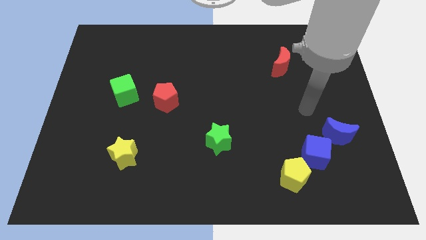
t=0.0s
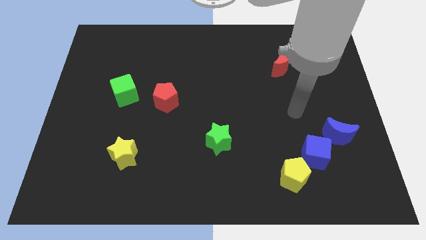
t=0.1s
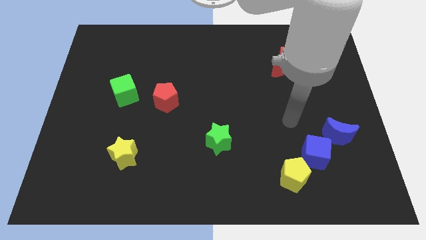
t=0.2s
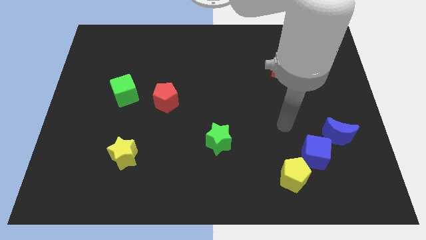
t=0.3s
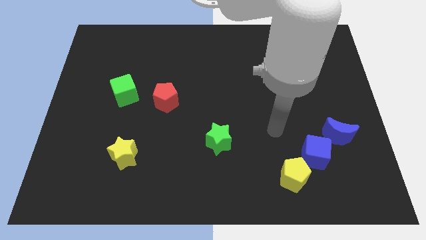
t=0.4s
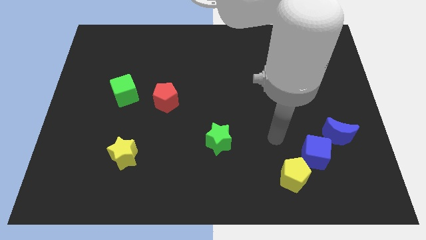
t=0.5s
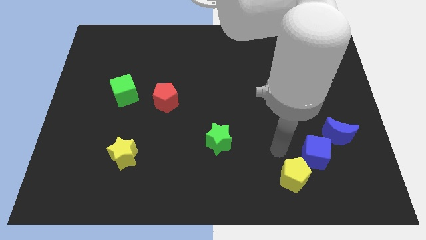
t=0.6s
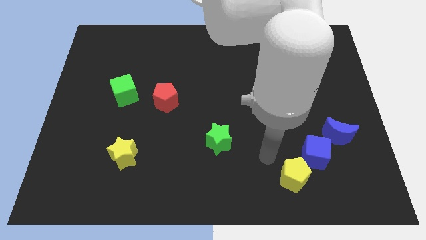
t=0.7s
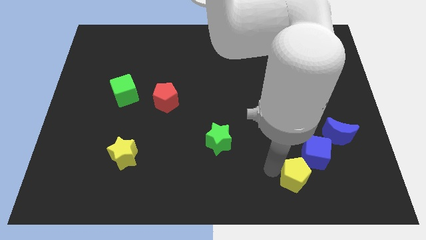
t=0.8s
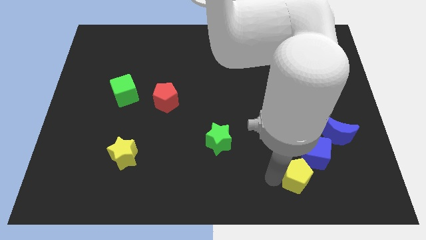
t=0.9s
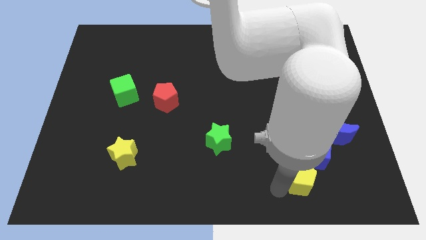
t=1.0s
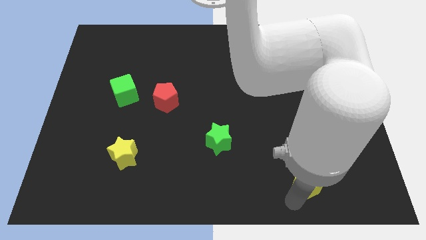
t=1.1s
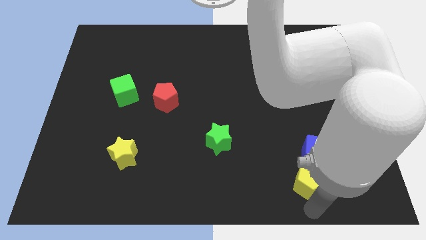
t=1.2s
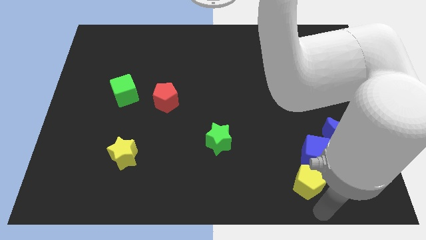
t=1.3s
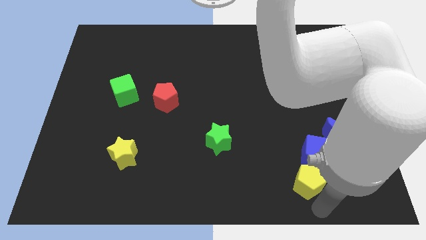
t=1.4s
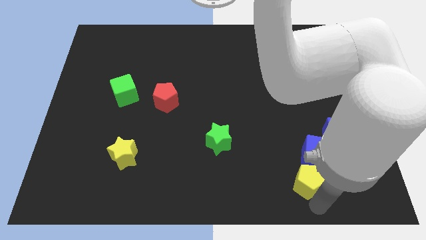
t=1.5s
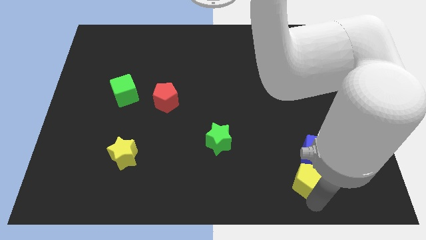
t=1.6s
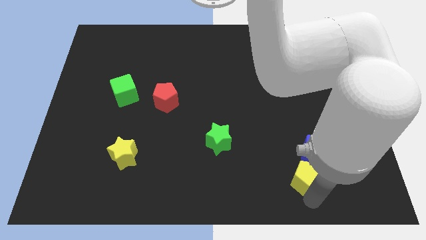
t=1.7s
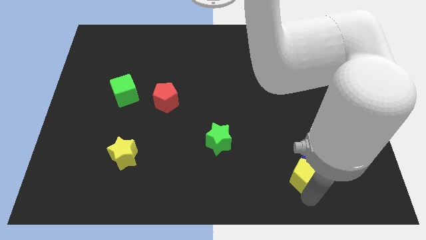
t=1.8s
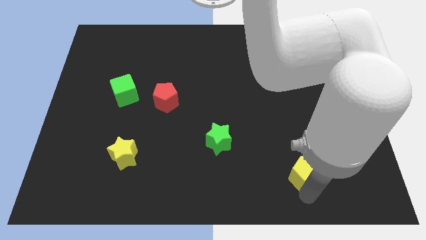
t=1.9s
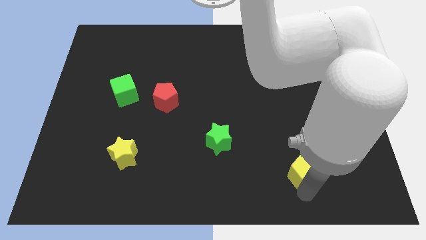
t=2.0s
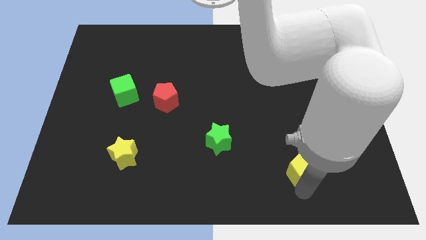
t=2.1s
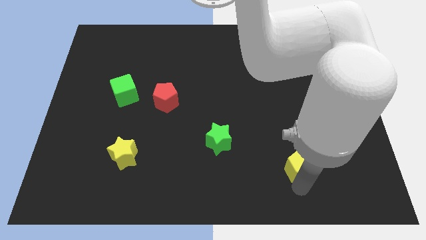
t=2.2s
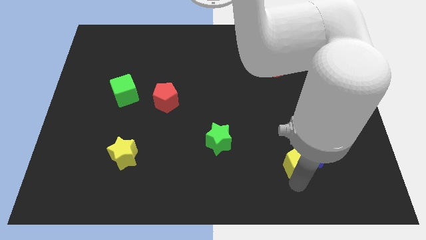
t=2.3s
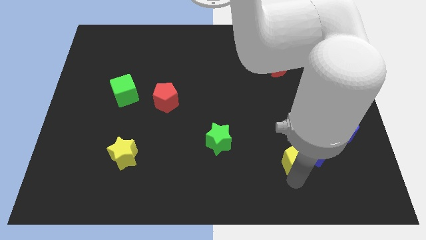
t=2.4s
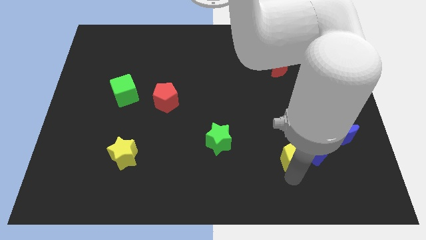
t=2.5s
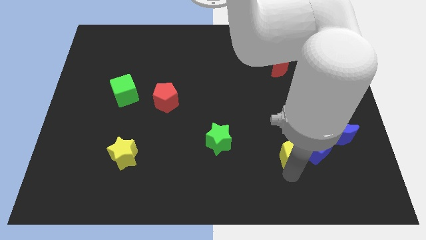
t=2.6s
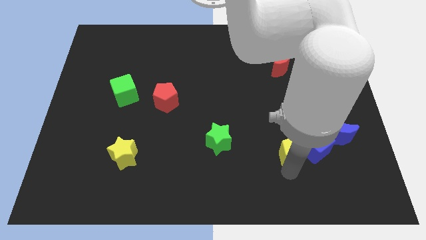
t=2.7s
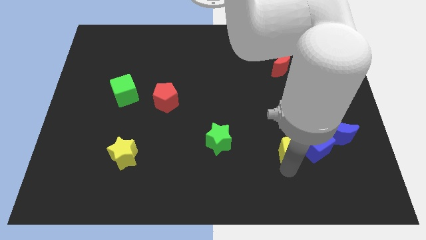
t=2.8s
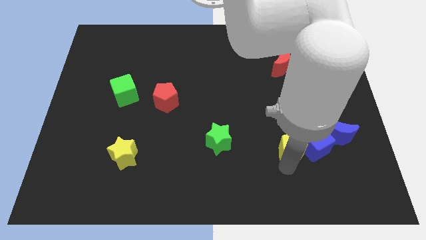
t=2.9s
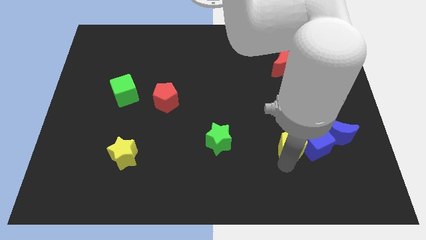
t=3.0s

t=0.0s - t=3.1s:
push the yellow pentagon up somewhat

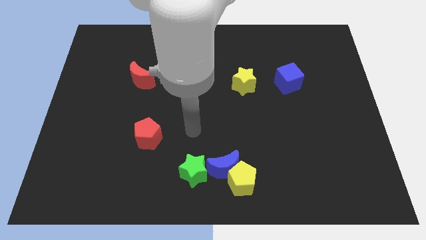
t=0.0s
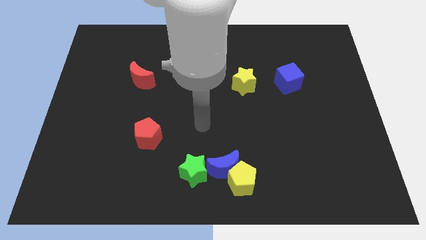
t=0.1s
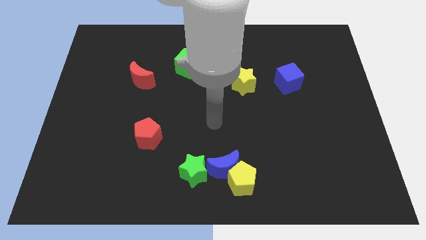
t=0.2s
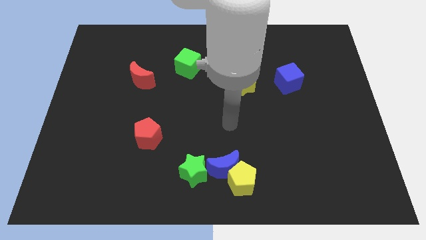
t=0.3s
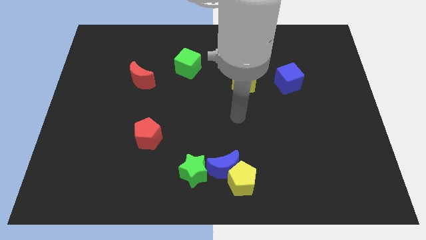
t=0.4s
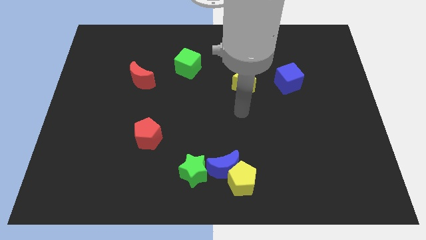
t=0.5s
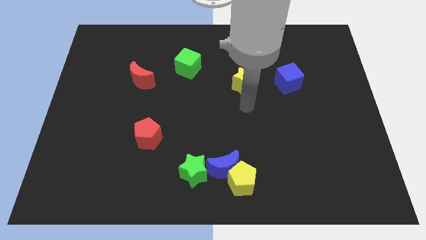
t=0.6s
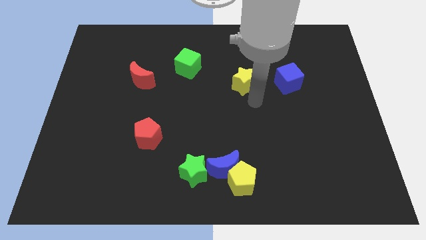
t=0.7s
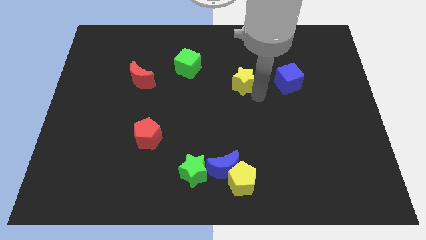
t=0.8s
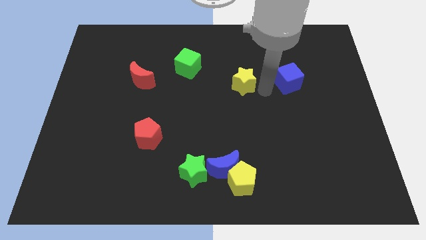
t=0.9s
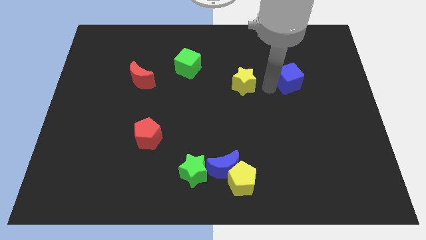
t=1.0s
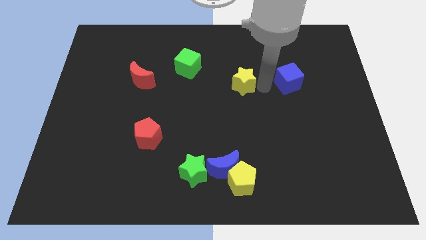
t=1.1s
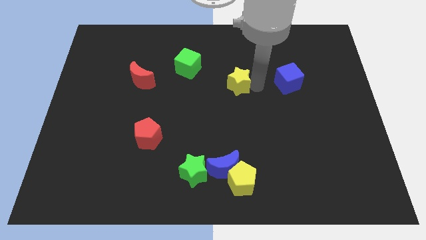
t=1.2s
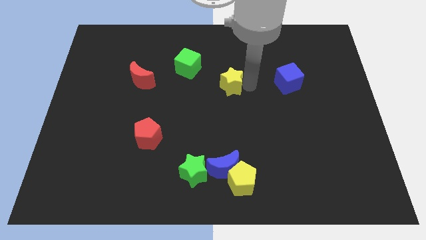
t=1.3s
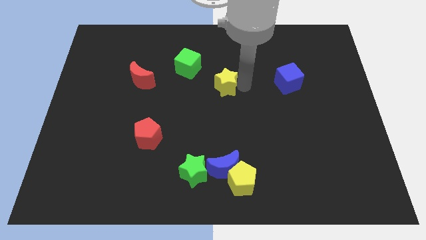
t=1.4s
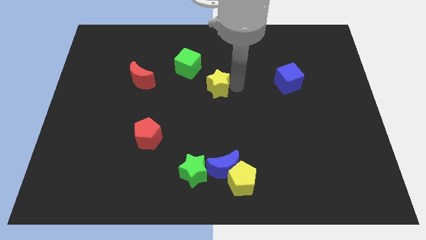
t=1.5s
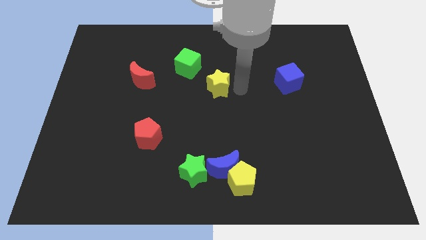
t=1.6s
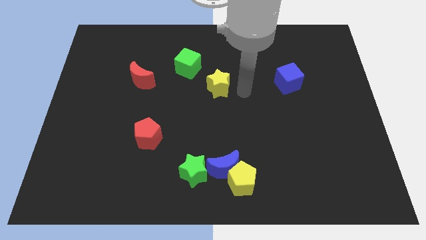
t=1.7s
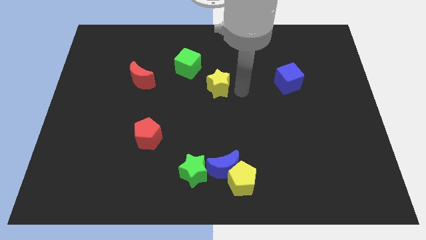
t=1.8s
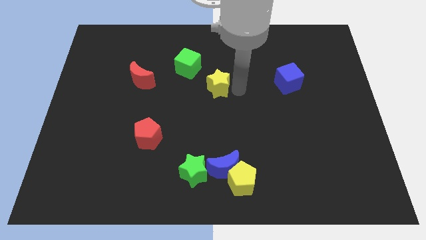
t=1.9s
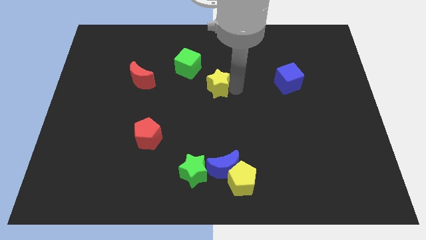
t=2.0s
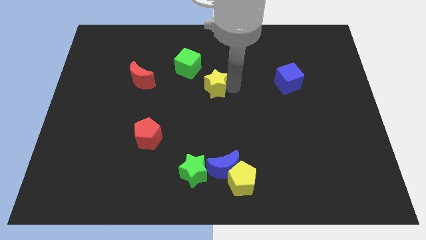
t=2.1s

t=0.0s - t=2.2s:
slightly slide the yellow star left

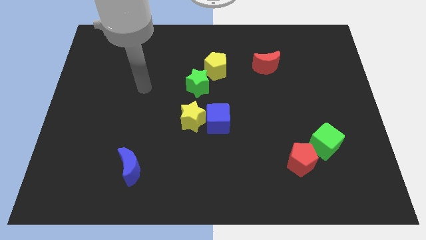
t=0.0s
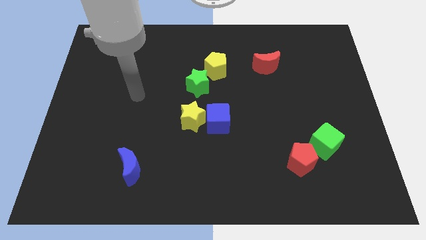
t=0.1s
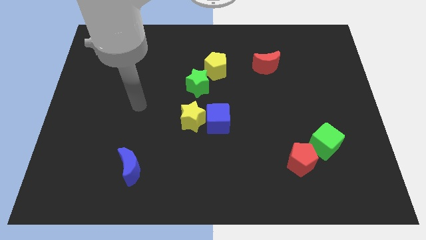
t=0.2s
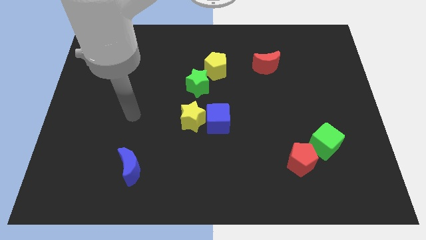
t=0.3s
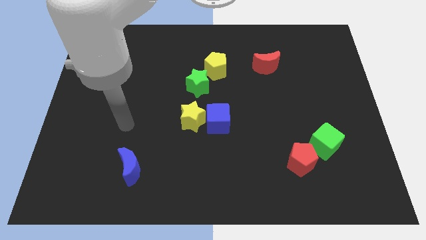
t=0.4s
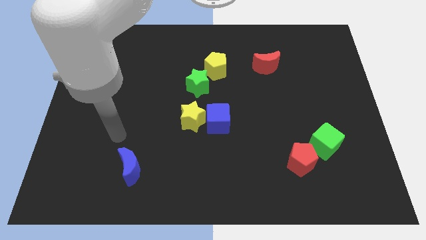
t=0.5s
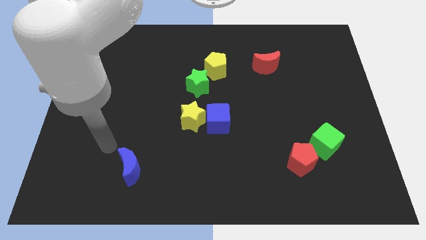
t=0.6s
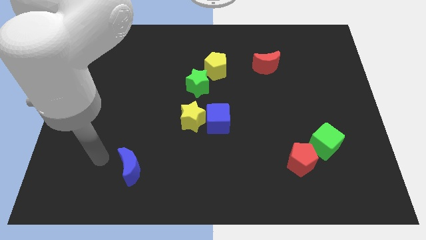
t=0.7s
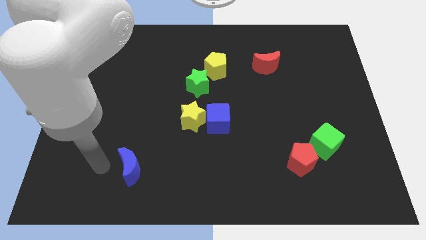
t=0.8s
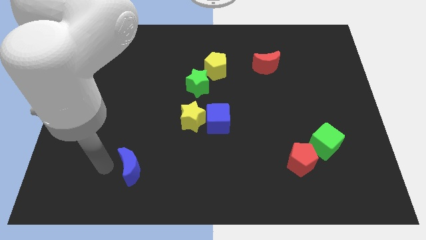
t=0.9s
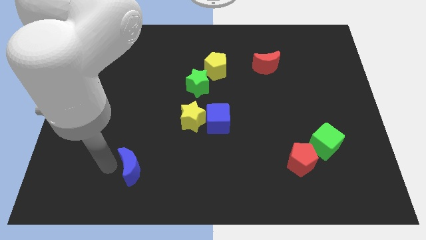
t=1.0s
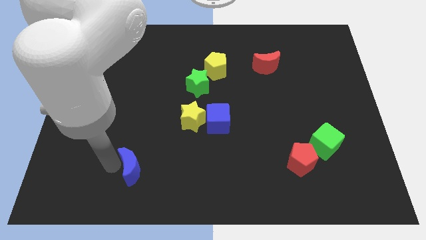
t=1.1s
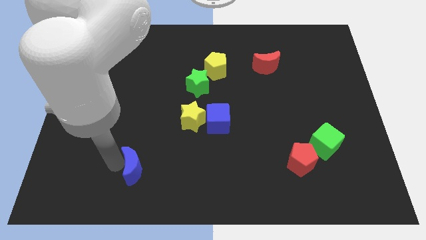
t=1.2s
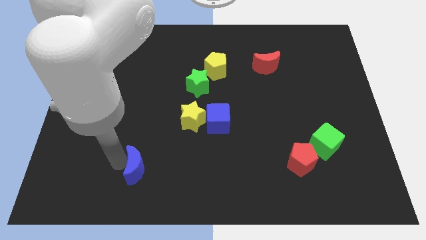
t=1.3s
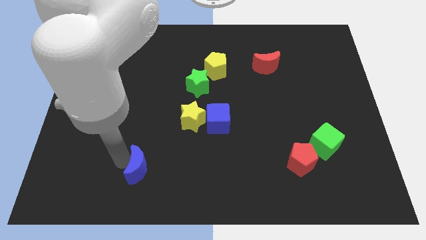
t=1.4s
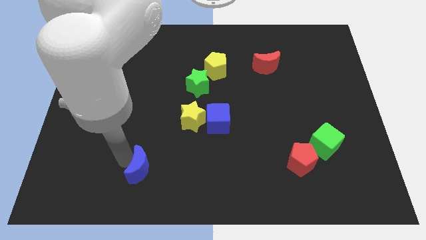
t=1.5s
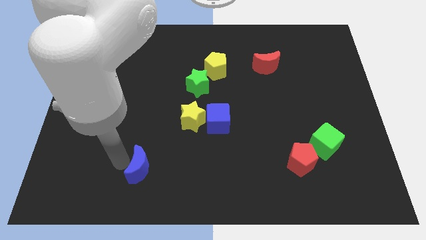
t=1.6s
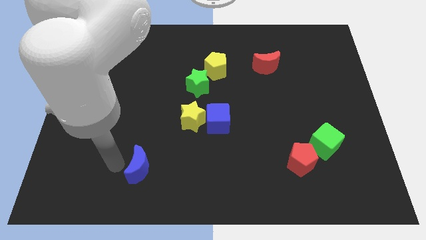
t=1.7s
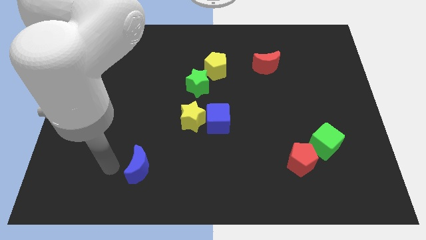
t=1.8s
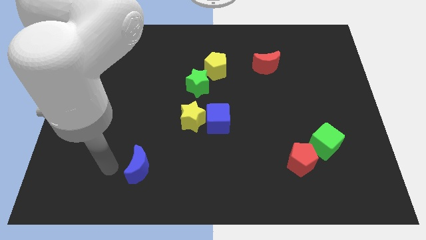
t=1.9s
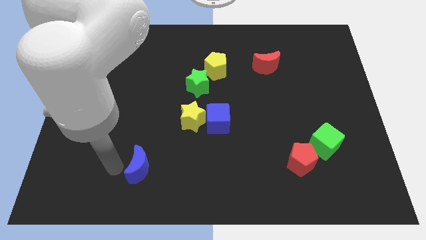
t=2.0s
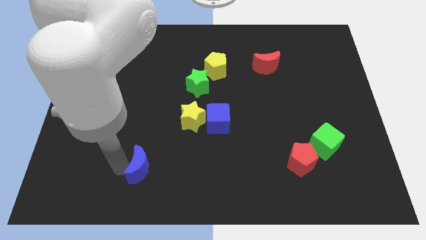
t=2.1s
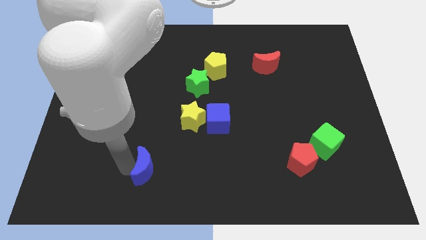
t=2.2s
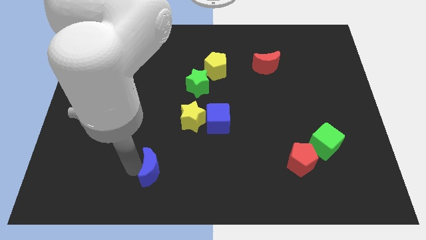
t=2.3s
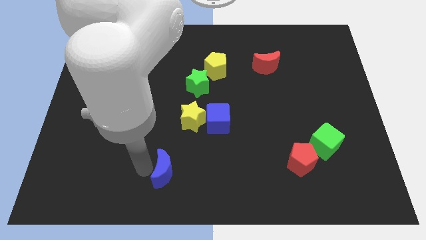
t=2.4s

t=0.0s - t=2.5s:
push the blue moon a little right

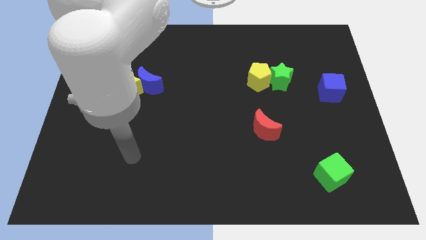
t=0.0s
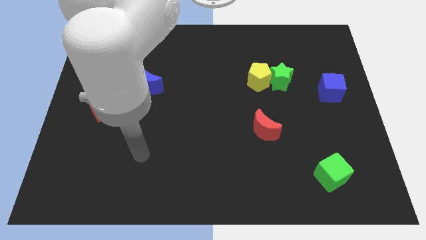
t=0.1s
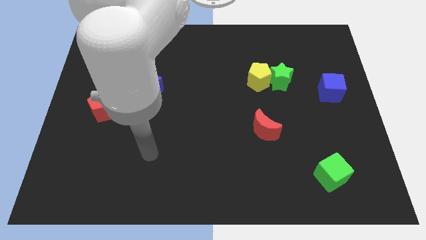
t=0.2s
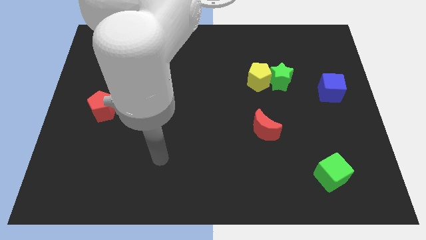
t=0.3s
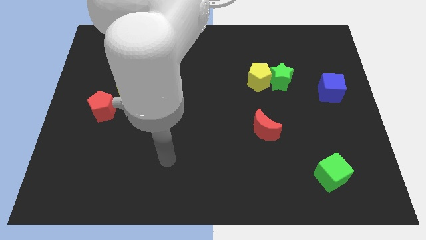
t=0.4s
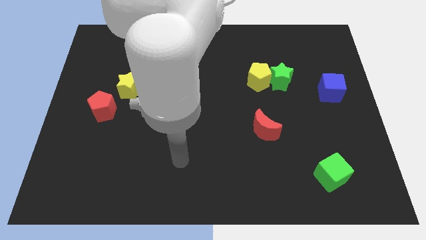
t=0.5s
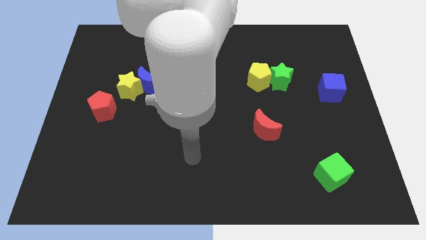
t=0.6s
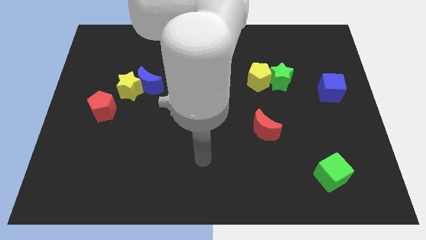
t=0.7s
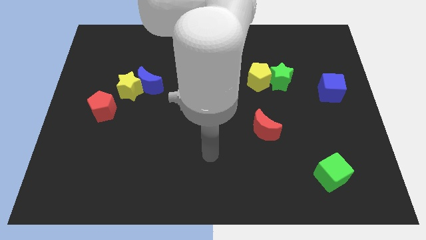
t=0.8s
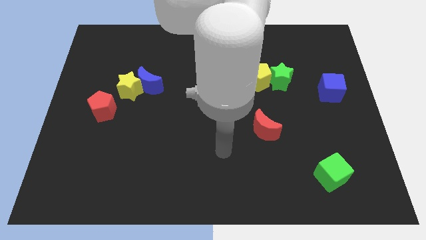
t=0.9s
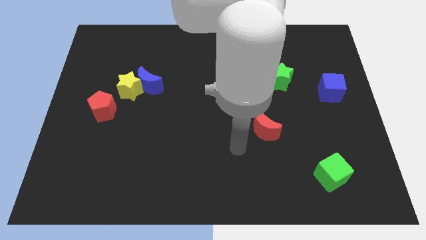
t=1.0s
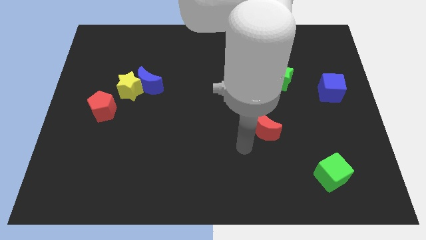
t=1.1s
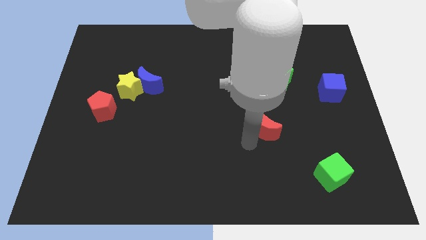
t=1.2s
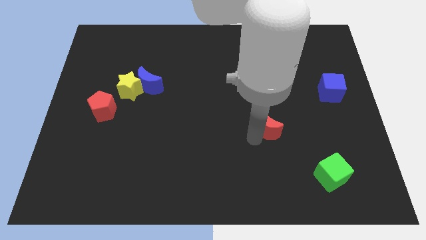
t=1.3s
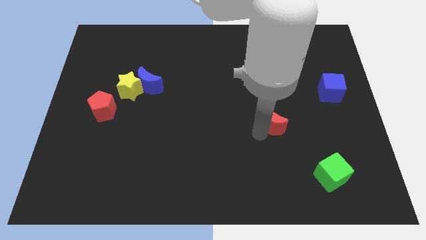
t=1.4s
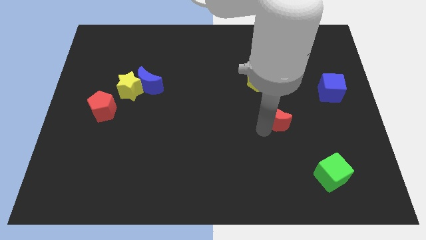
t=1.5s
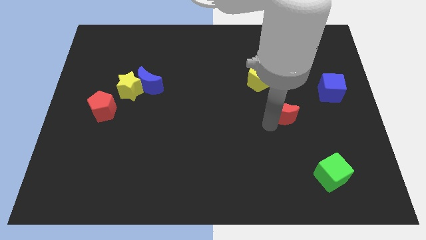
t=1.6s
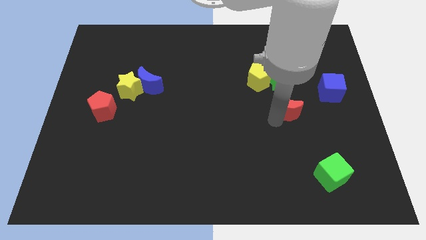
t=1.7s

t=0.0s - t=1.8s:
slightly move the red moon upwards and right
